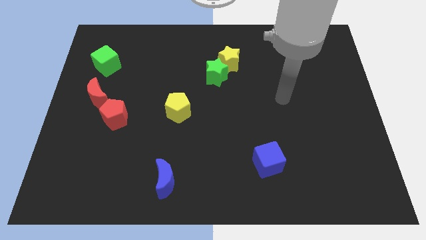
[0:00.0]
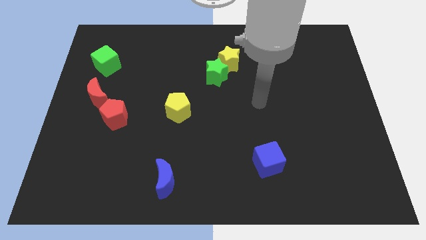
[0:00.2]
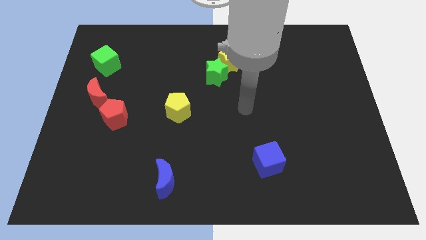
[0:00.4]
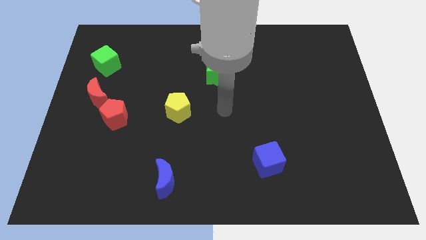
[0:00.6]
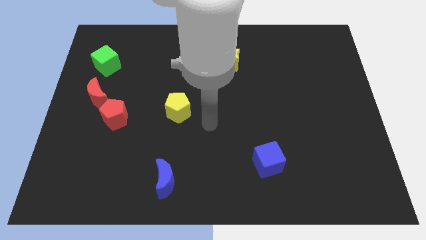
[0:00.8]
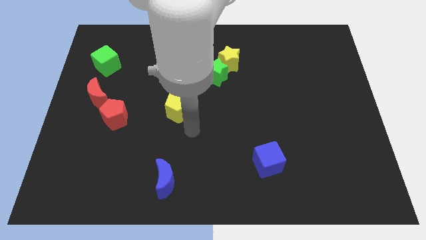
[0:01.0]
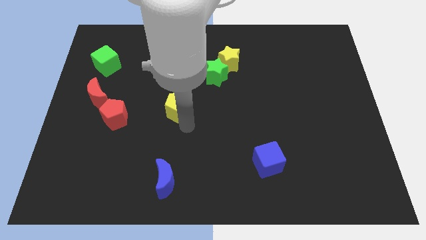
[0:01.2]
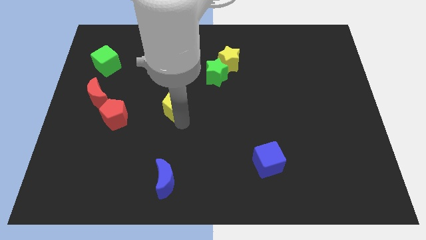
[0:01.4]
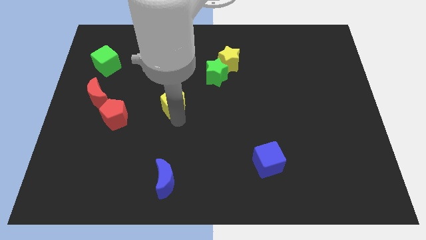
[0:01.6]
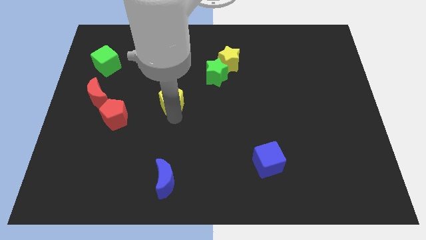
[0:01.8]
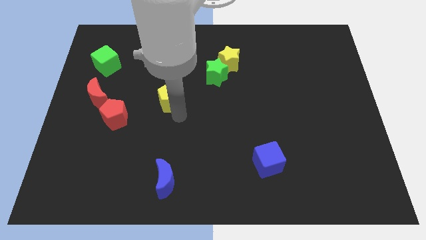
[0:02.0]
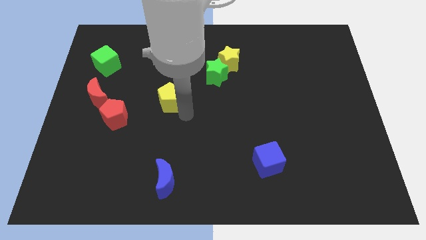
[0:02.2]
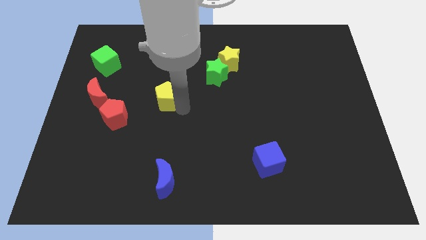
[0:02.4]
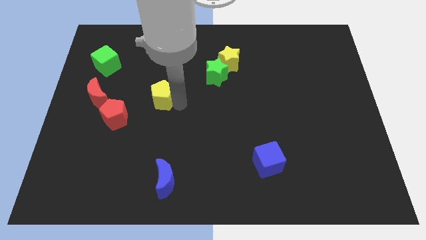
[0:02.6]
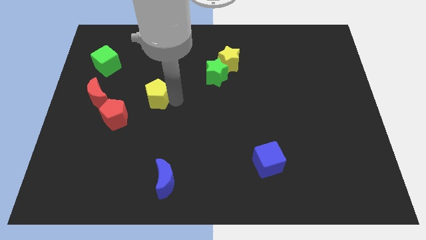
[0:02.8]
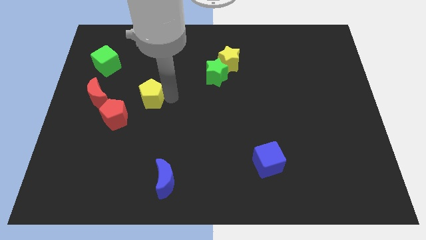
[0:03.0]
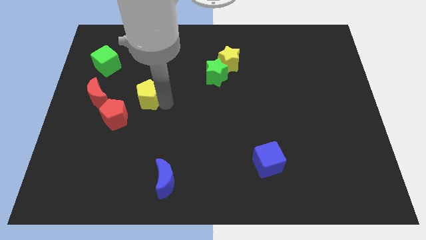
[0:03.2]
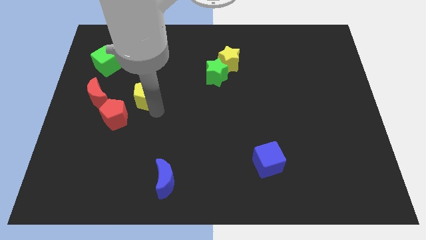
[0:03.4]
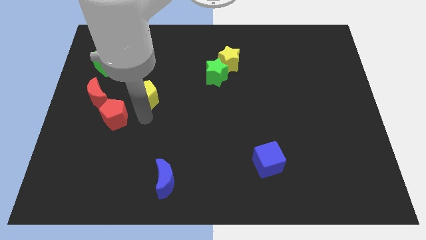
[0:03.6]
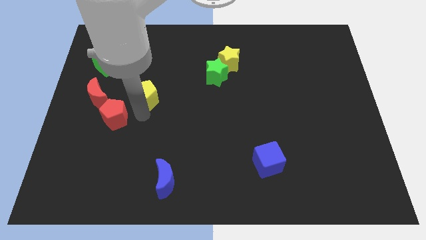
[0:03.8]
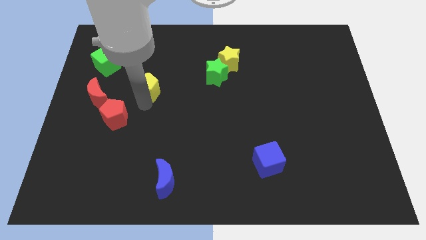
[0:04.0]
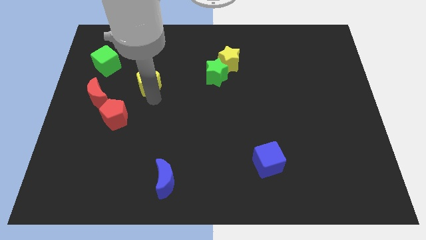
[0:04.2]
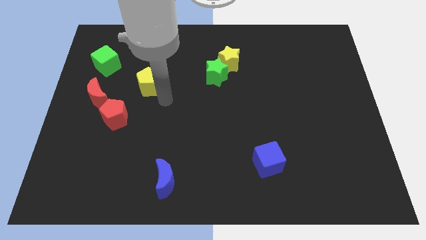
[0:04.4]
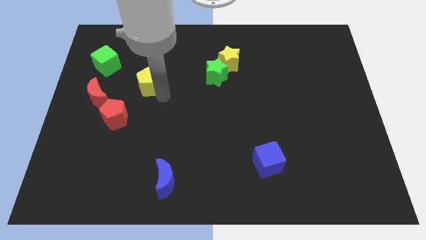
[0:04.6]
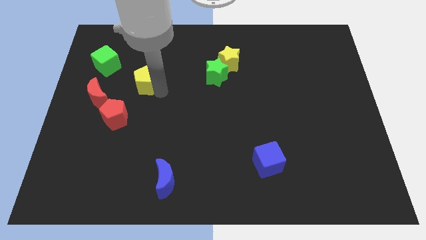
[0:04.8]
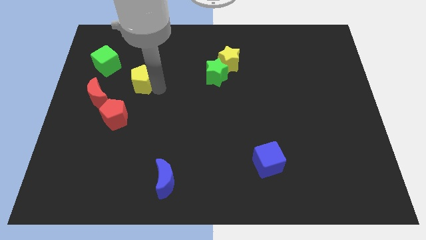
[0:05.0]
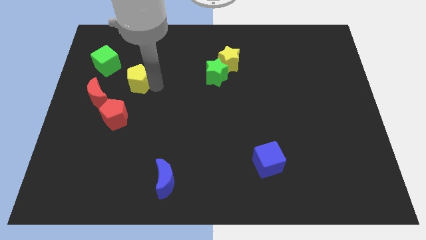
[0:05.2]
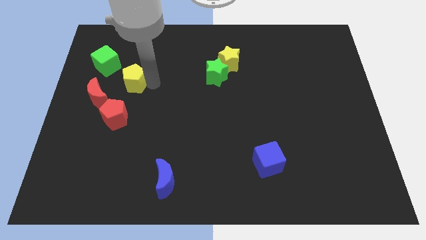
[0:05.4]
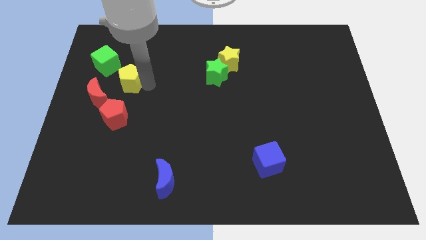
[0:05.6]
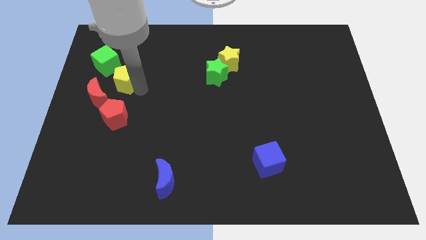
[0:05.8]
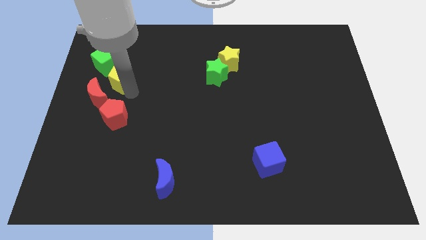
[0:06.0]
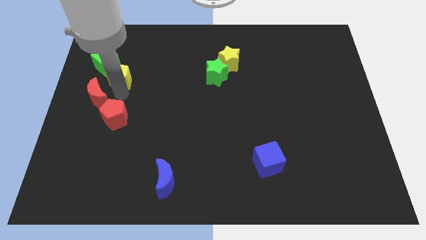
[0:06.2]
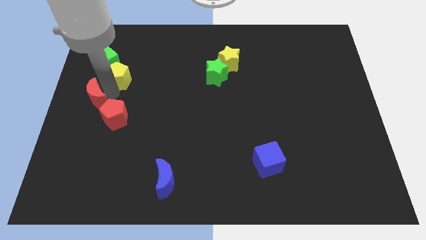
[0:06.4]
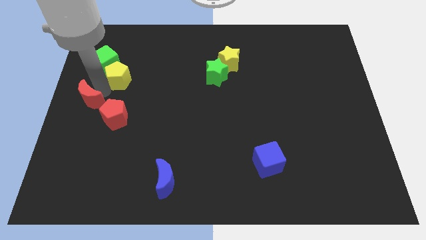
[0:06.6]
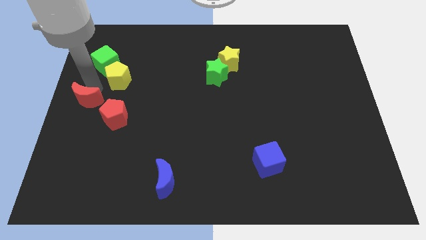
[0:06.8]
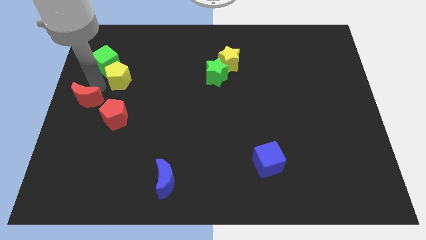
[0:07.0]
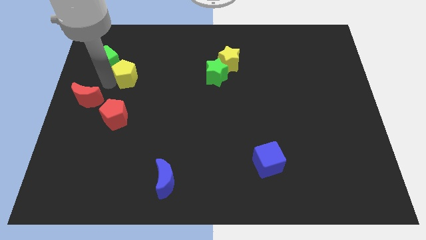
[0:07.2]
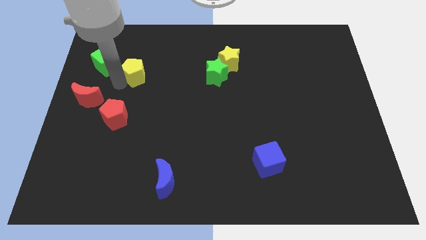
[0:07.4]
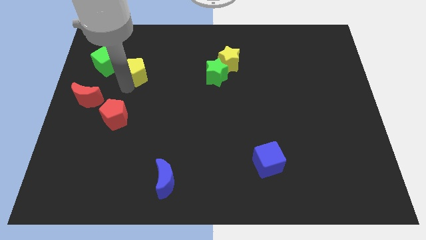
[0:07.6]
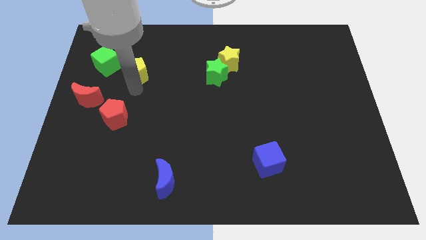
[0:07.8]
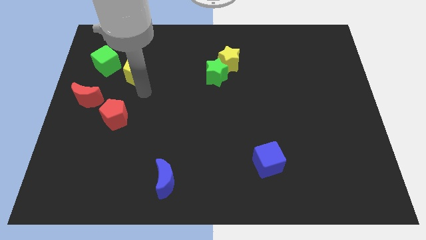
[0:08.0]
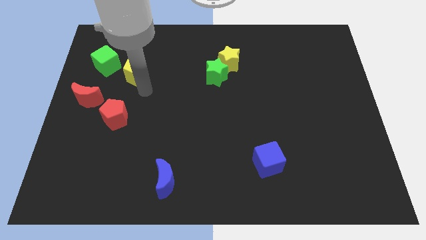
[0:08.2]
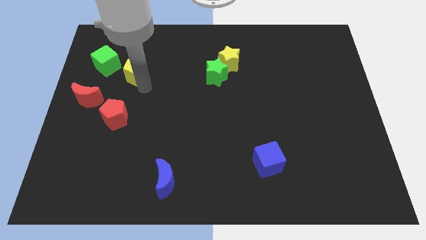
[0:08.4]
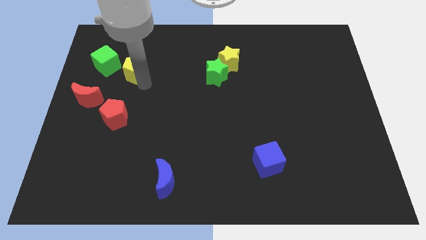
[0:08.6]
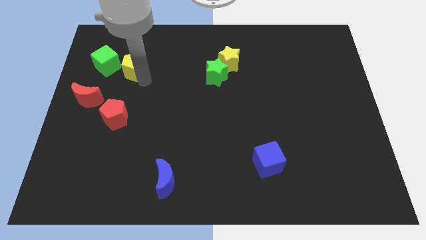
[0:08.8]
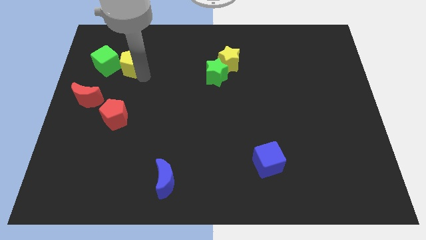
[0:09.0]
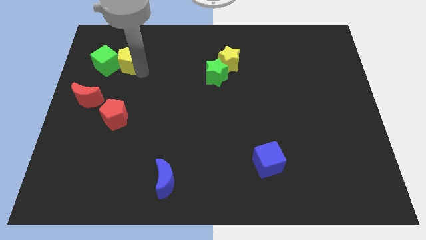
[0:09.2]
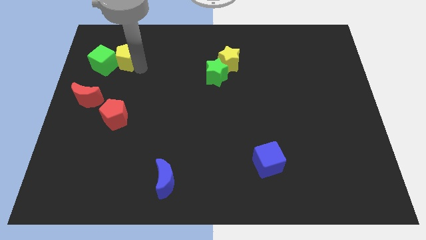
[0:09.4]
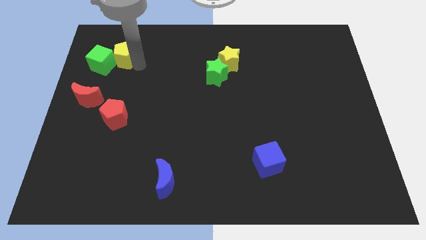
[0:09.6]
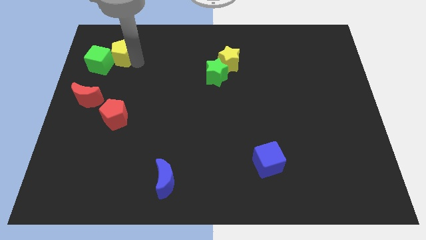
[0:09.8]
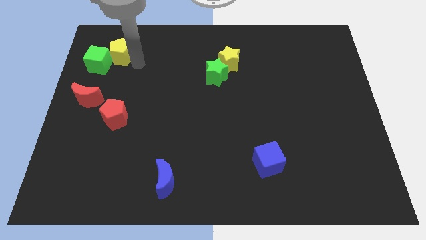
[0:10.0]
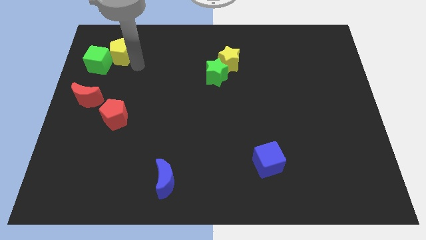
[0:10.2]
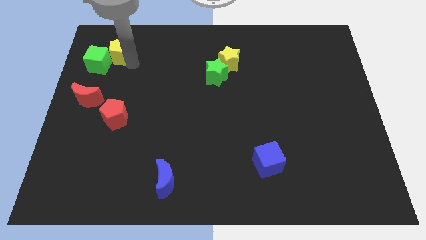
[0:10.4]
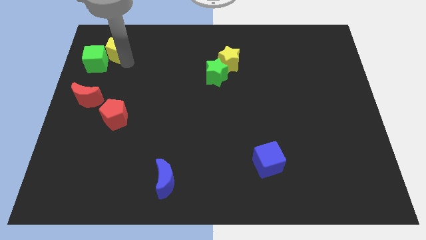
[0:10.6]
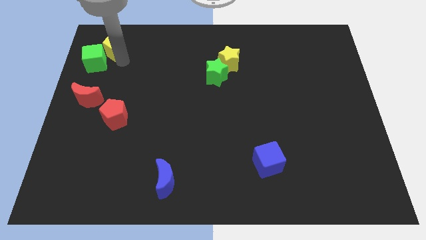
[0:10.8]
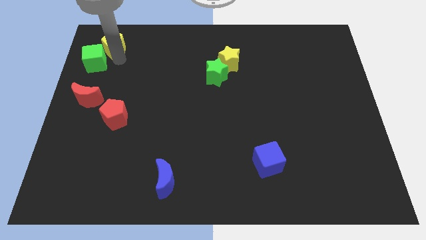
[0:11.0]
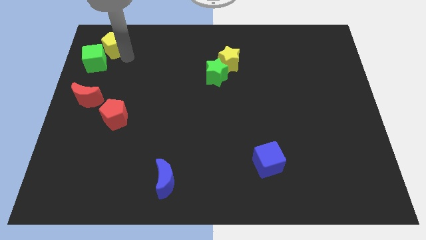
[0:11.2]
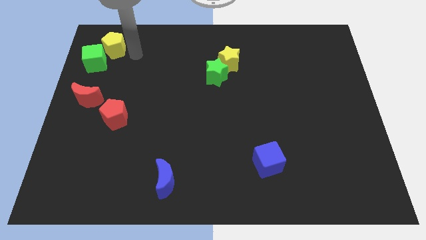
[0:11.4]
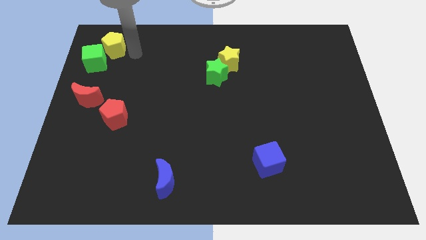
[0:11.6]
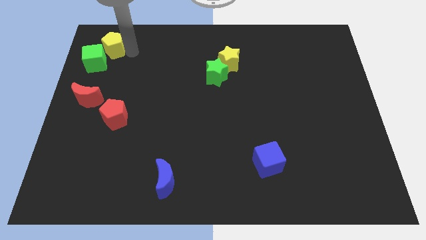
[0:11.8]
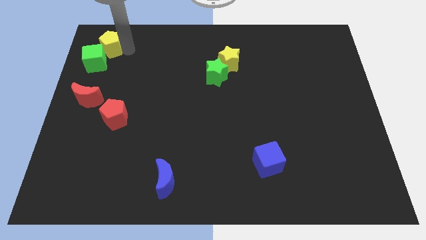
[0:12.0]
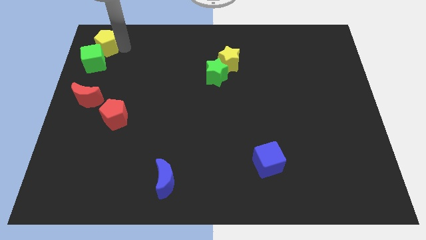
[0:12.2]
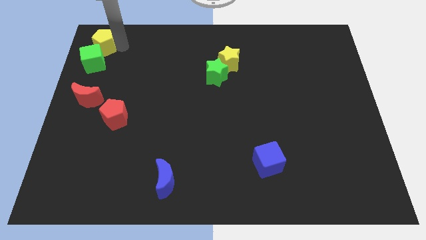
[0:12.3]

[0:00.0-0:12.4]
put the yellow pentagon to the upper left corner
